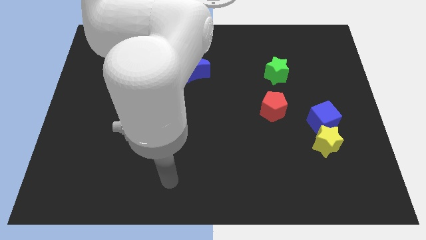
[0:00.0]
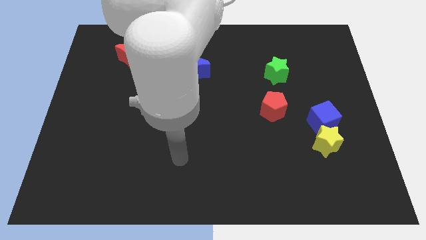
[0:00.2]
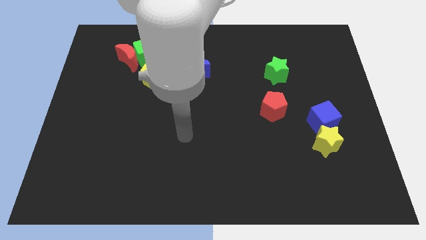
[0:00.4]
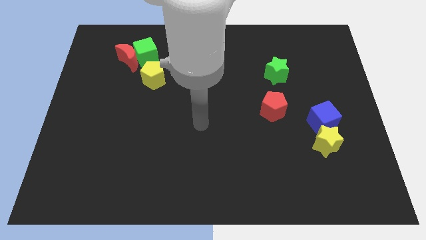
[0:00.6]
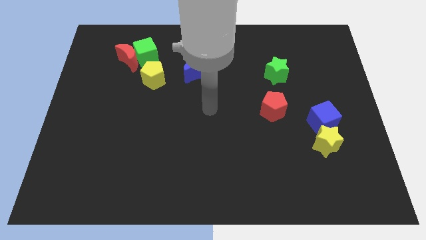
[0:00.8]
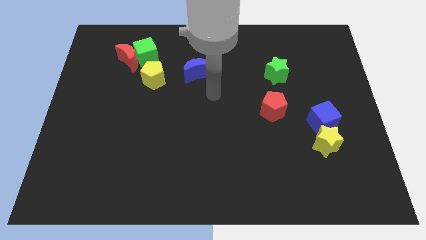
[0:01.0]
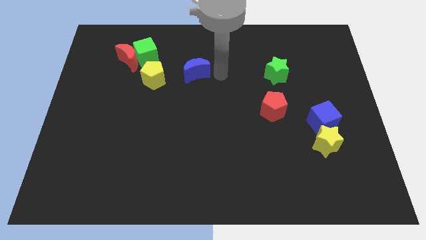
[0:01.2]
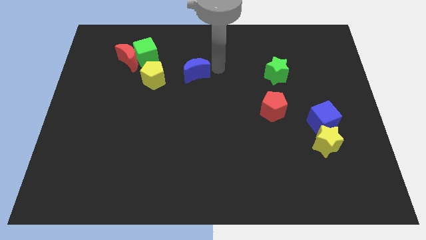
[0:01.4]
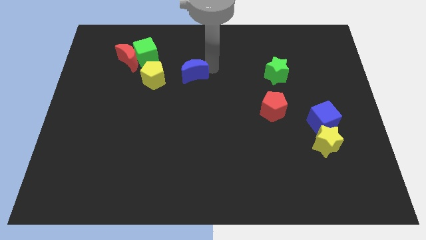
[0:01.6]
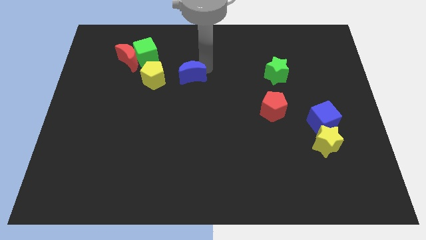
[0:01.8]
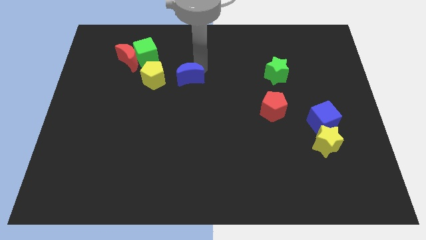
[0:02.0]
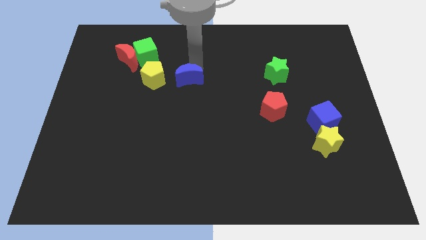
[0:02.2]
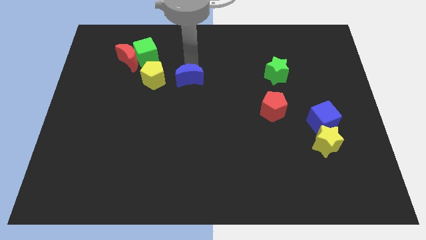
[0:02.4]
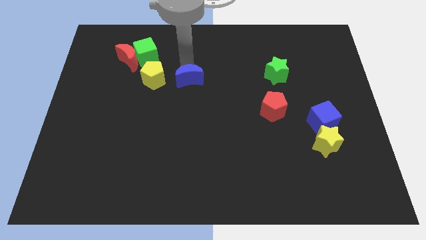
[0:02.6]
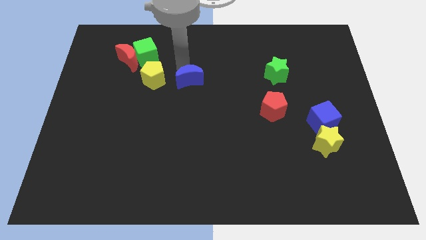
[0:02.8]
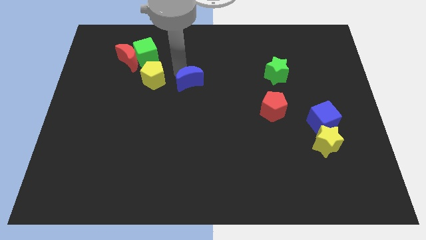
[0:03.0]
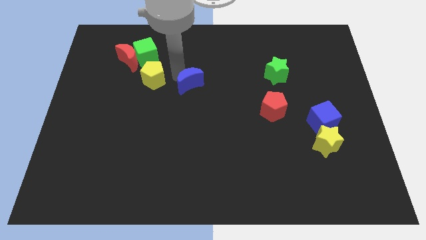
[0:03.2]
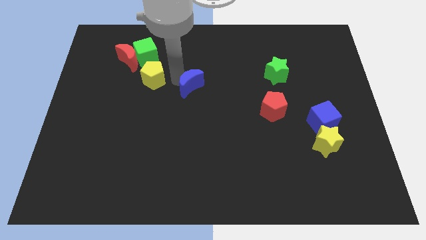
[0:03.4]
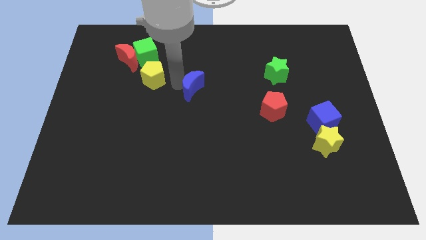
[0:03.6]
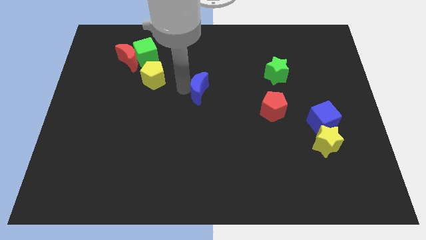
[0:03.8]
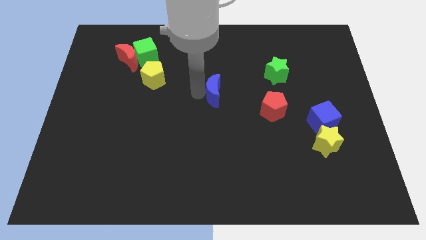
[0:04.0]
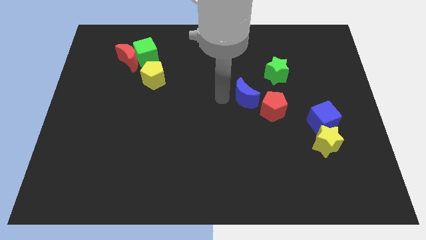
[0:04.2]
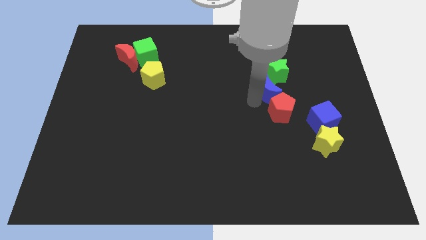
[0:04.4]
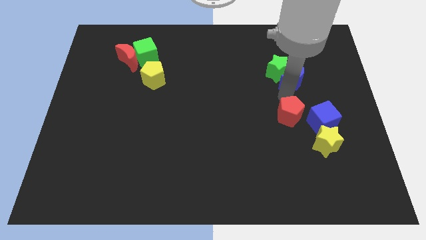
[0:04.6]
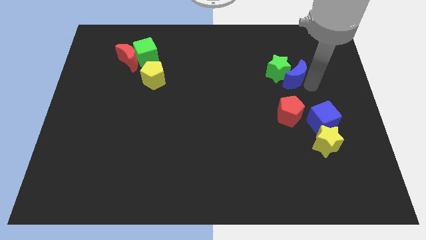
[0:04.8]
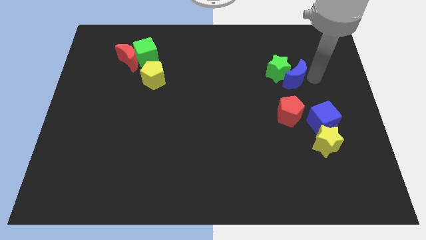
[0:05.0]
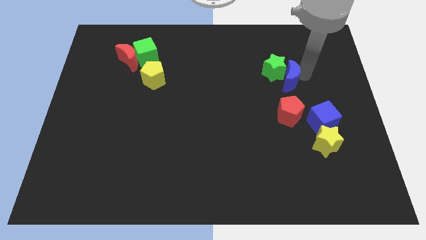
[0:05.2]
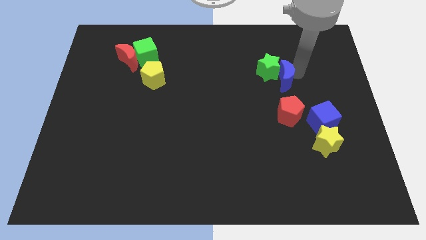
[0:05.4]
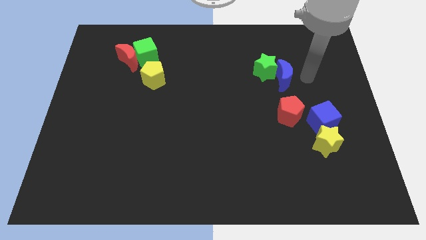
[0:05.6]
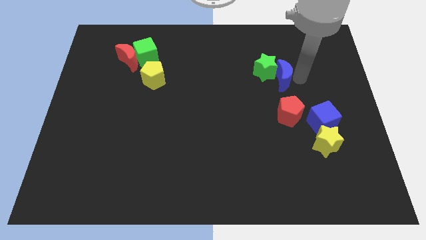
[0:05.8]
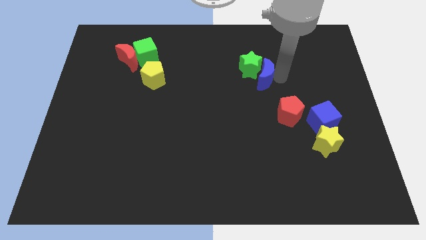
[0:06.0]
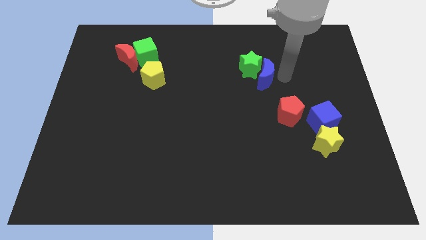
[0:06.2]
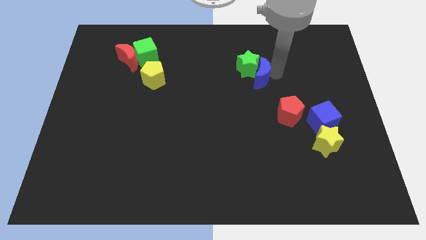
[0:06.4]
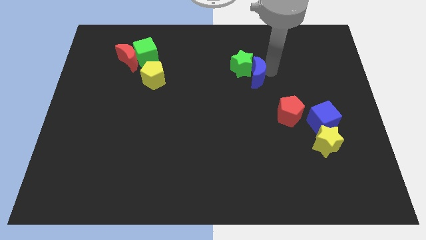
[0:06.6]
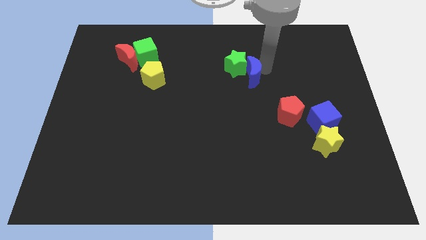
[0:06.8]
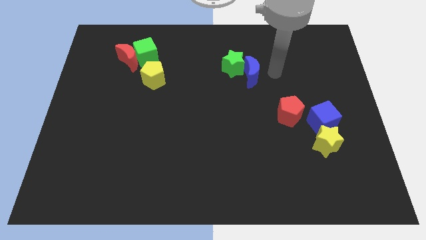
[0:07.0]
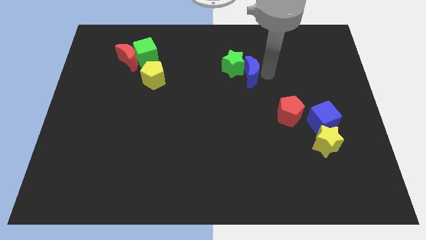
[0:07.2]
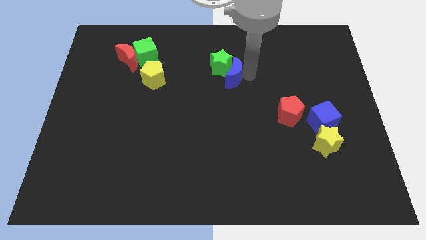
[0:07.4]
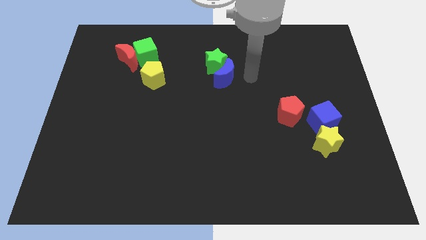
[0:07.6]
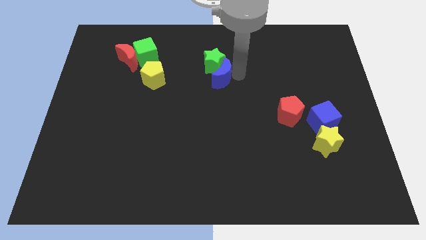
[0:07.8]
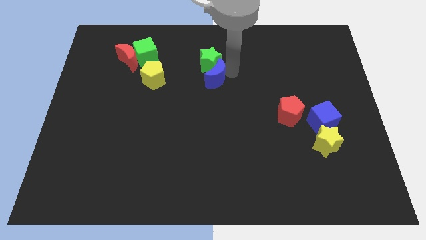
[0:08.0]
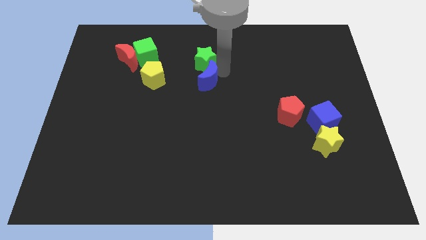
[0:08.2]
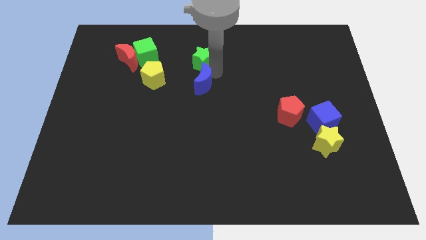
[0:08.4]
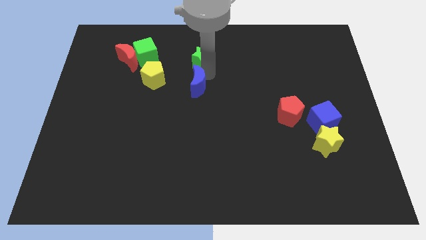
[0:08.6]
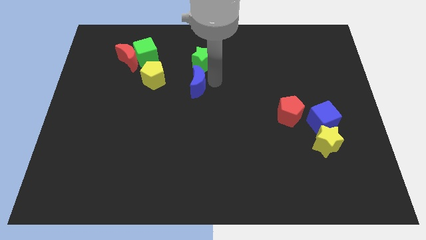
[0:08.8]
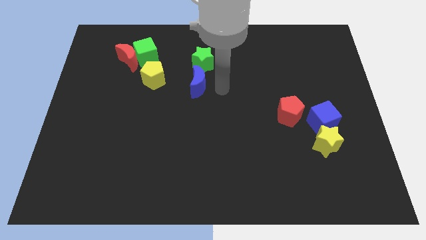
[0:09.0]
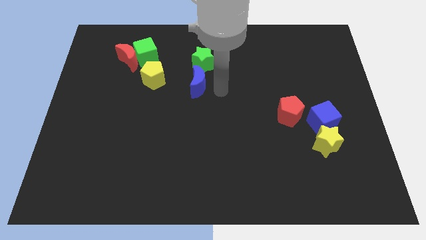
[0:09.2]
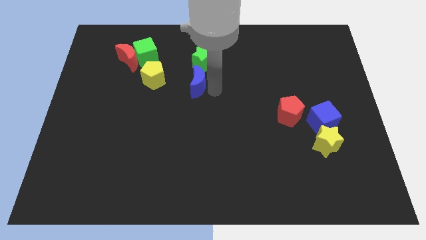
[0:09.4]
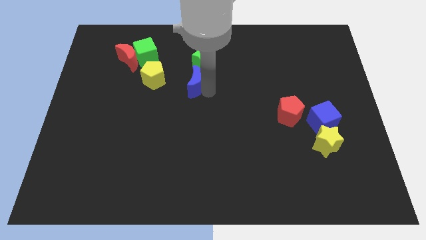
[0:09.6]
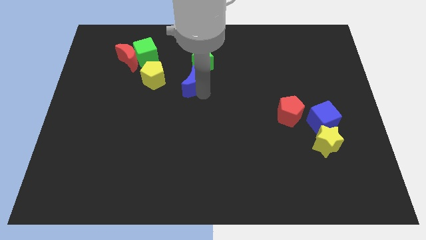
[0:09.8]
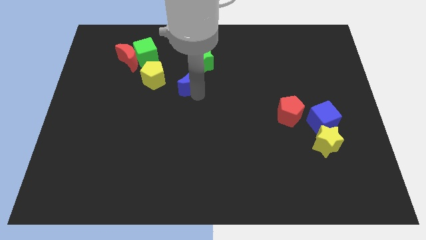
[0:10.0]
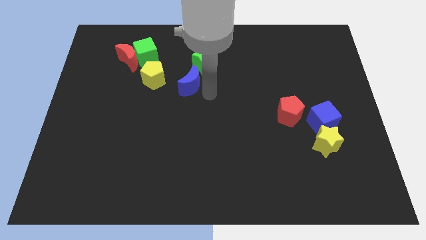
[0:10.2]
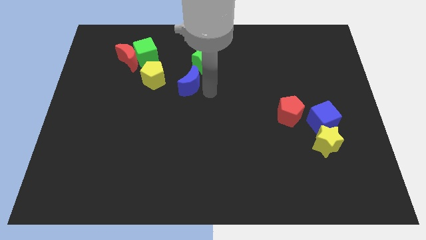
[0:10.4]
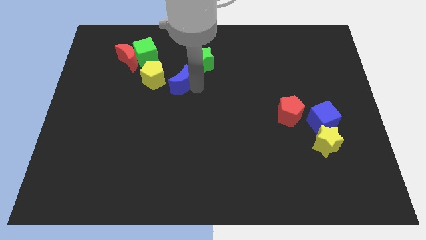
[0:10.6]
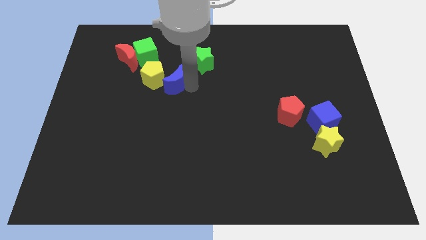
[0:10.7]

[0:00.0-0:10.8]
put the blue moon next to the yellow pentagon

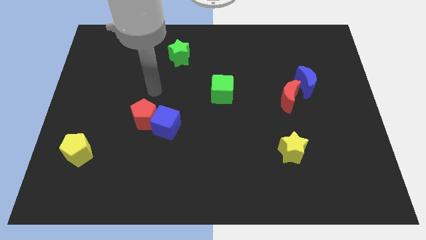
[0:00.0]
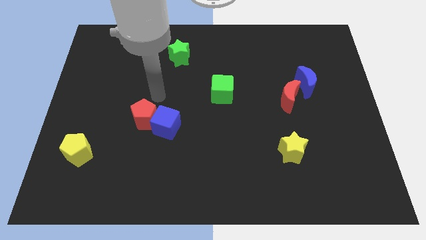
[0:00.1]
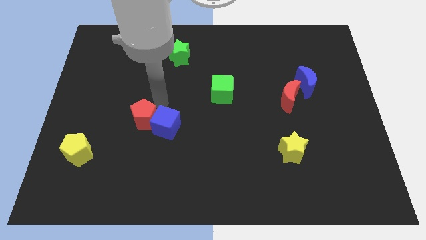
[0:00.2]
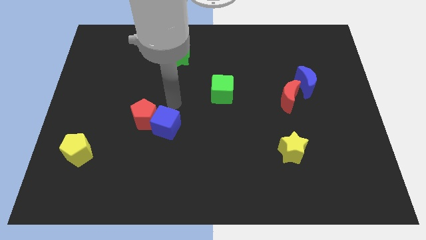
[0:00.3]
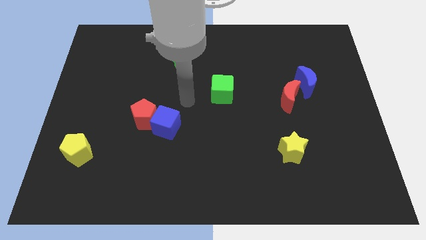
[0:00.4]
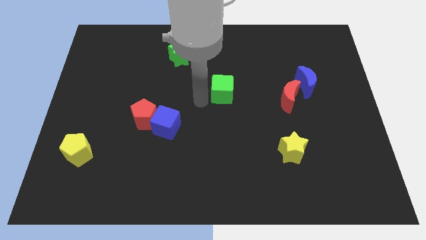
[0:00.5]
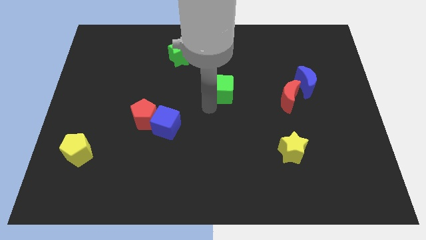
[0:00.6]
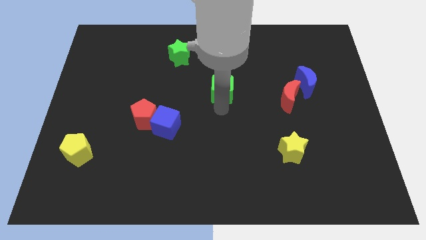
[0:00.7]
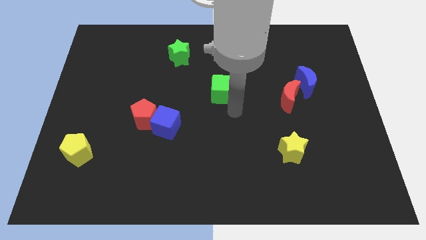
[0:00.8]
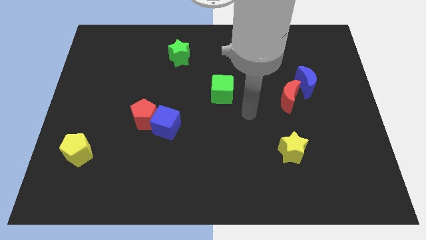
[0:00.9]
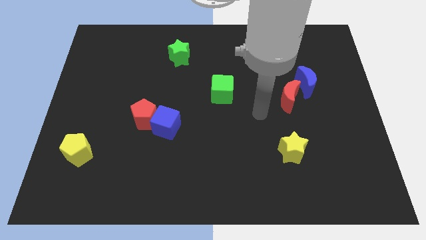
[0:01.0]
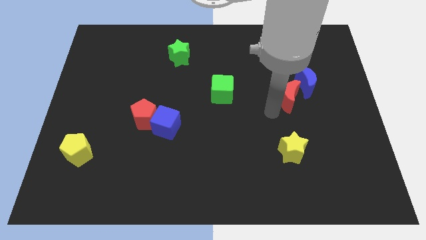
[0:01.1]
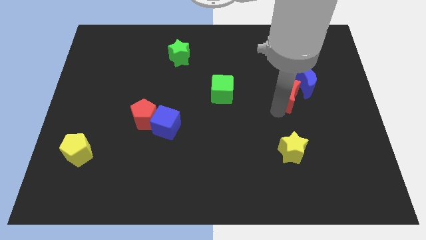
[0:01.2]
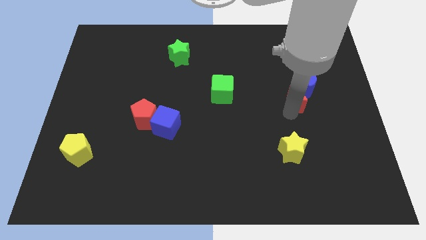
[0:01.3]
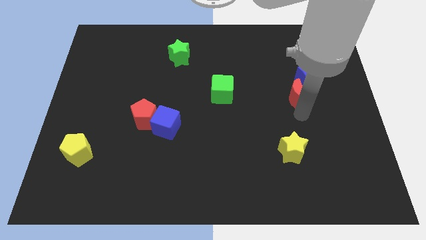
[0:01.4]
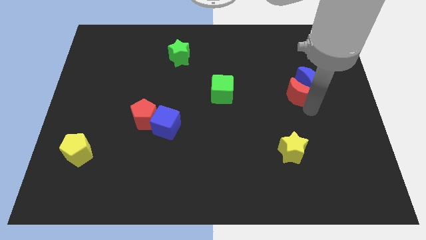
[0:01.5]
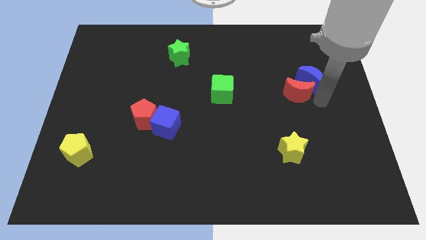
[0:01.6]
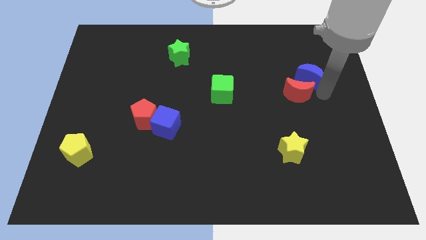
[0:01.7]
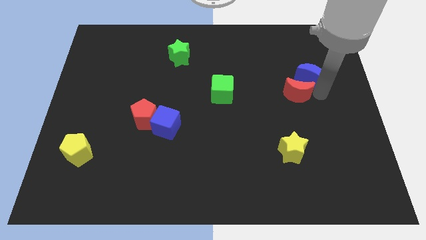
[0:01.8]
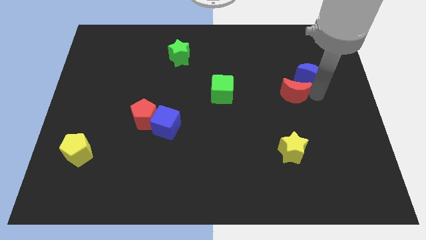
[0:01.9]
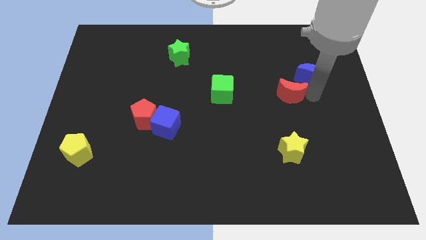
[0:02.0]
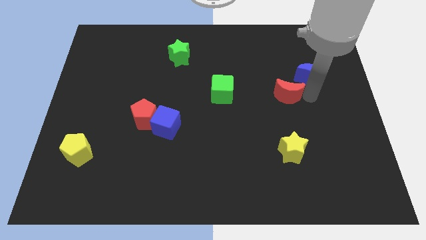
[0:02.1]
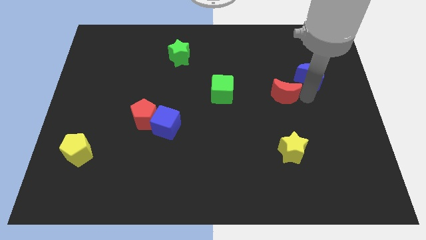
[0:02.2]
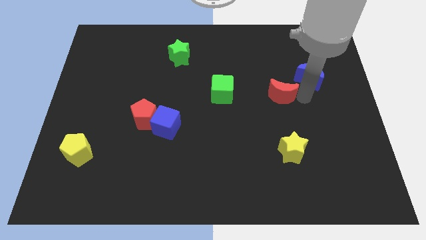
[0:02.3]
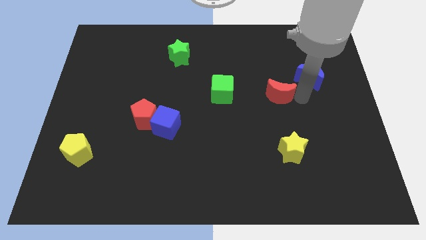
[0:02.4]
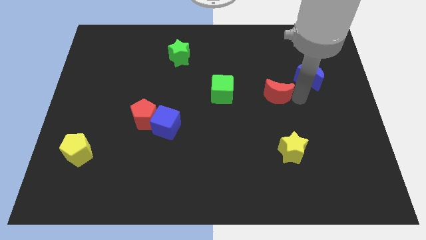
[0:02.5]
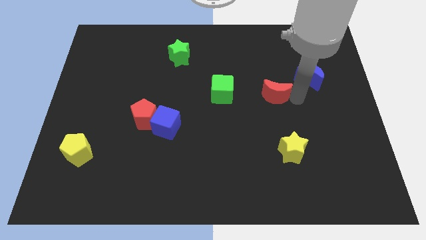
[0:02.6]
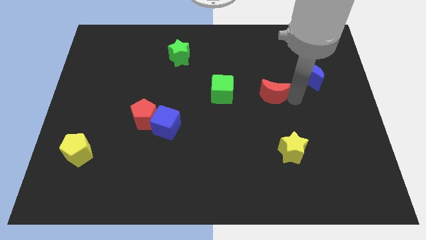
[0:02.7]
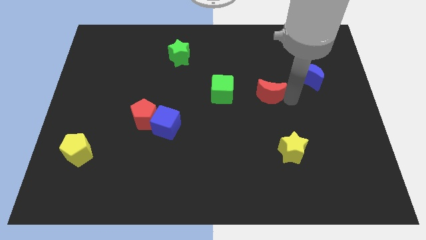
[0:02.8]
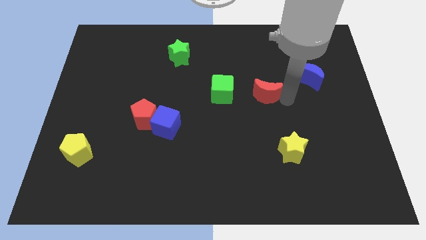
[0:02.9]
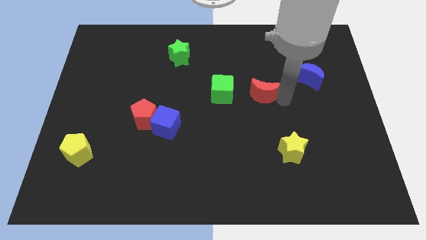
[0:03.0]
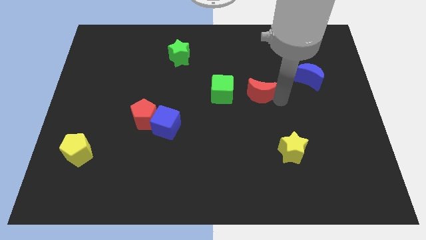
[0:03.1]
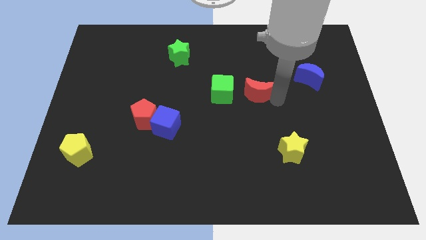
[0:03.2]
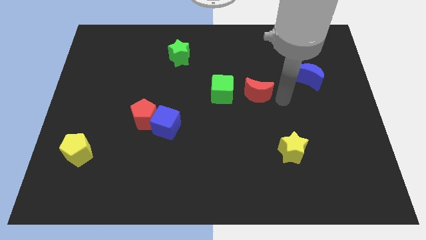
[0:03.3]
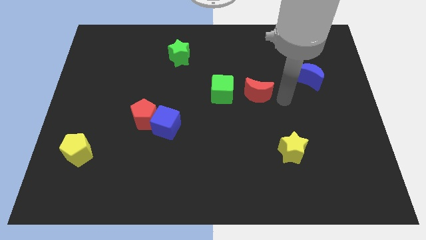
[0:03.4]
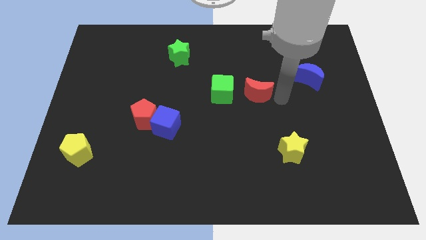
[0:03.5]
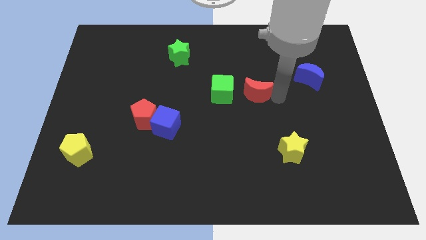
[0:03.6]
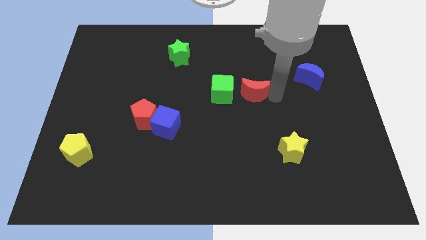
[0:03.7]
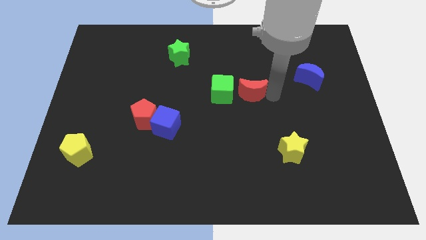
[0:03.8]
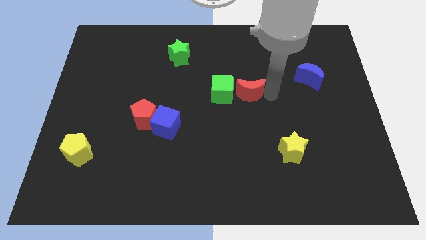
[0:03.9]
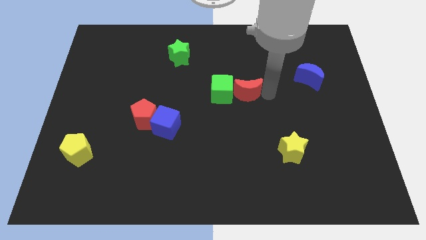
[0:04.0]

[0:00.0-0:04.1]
put the red moon towards the green cube
